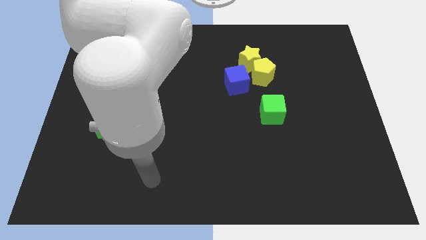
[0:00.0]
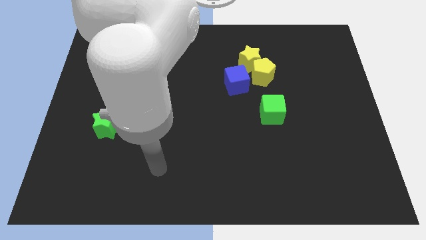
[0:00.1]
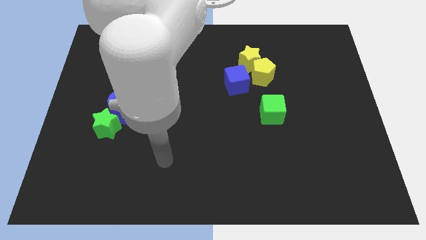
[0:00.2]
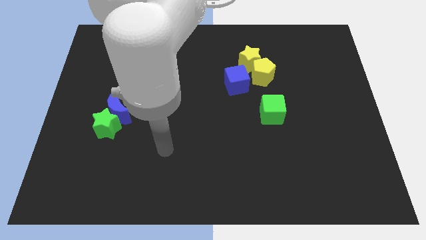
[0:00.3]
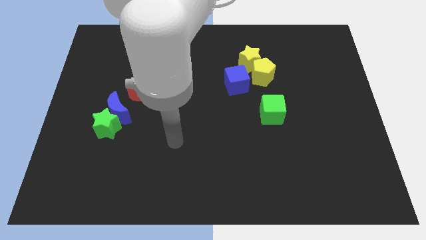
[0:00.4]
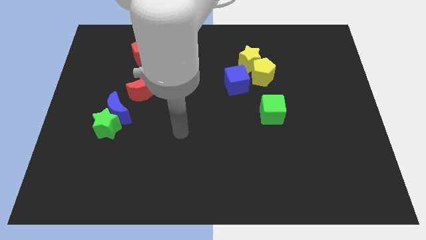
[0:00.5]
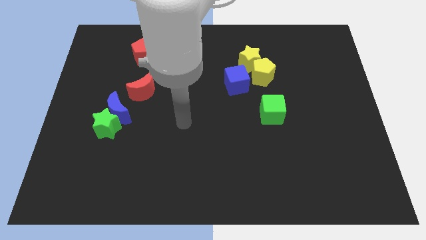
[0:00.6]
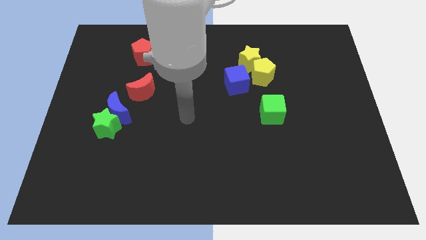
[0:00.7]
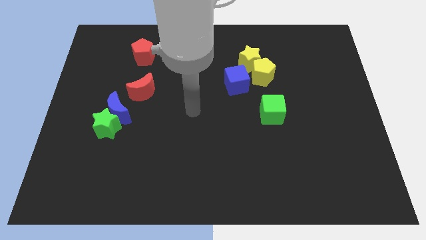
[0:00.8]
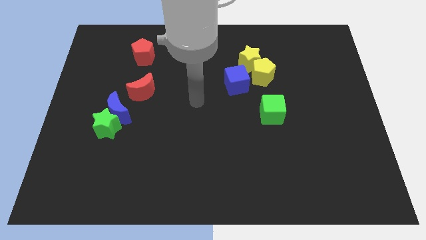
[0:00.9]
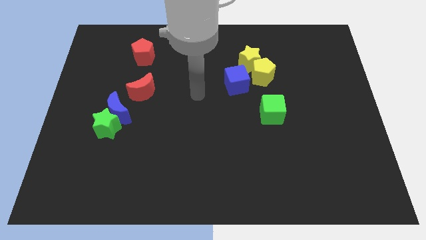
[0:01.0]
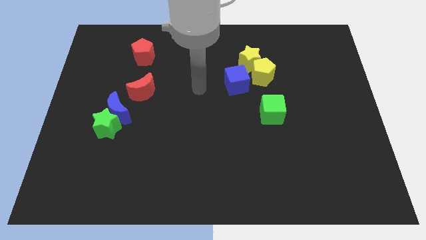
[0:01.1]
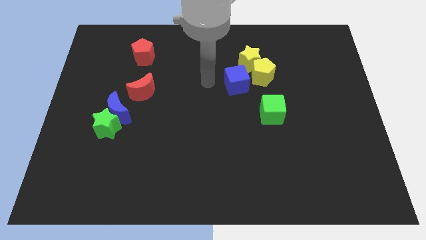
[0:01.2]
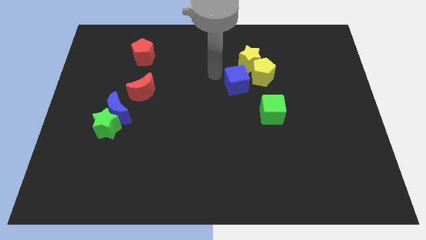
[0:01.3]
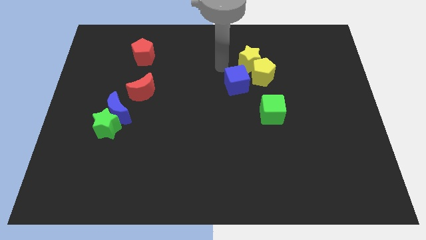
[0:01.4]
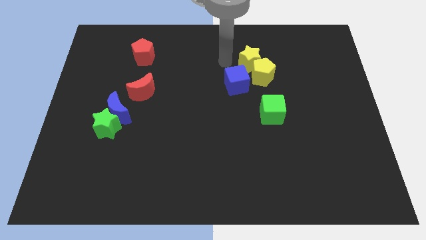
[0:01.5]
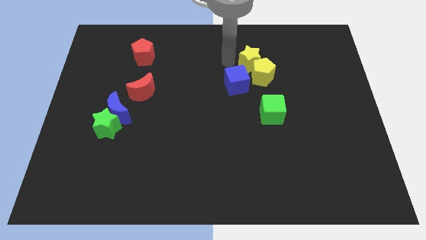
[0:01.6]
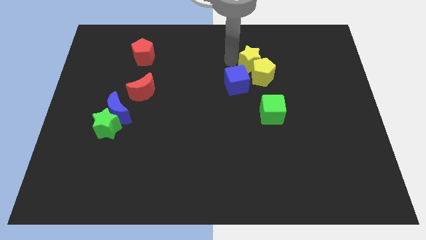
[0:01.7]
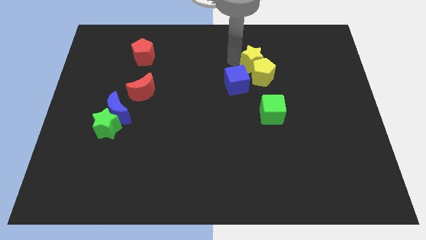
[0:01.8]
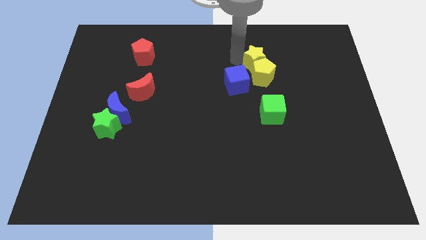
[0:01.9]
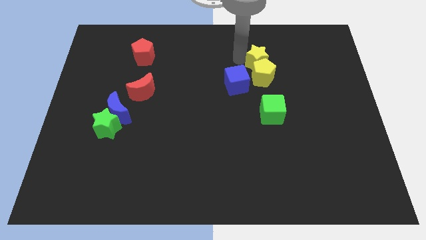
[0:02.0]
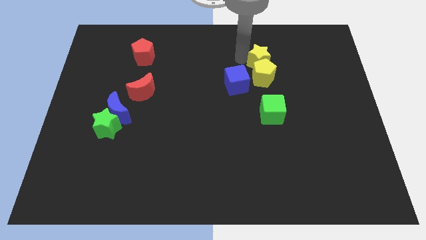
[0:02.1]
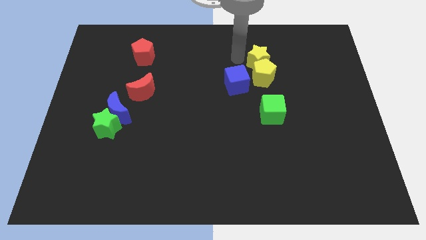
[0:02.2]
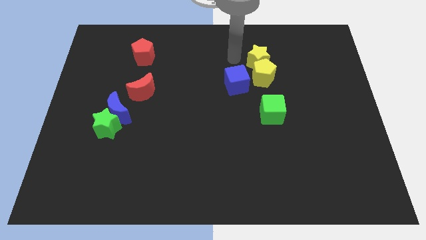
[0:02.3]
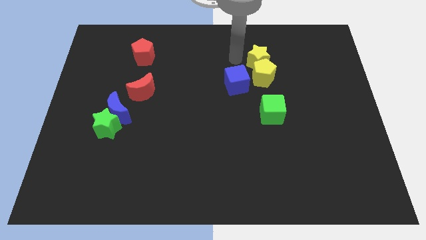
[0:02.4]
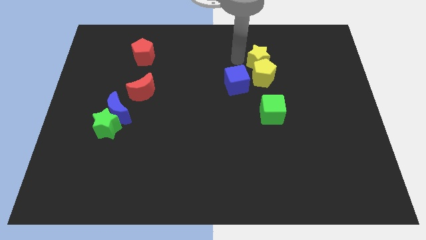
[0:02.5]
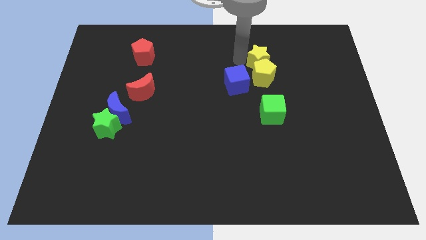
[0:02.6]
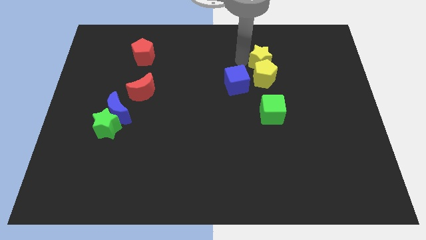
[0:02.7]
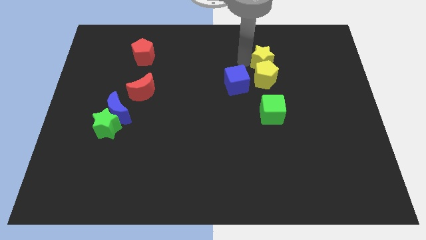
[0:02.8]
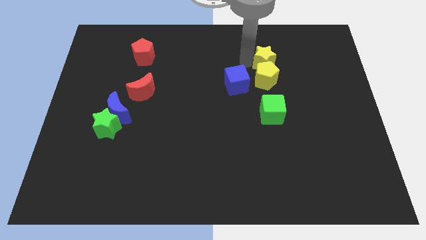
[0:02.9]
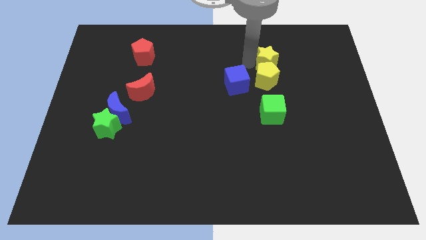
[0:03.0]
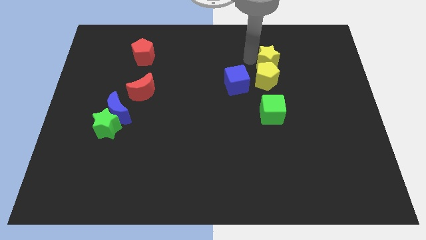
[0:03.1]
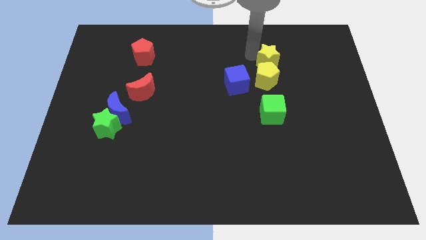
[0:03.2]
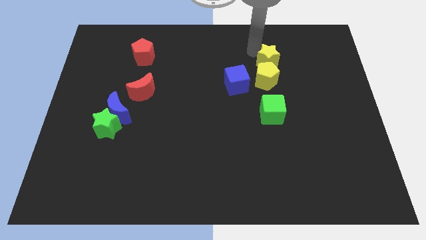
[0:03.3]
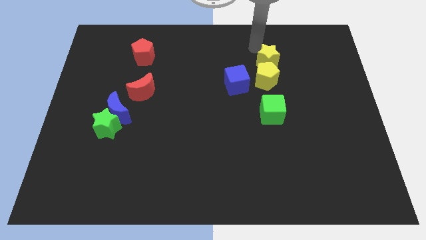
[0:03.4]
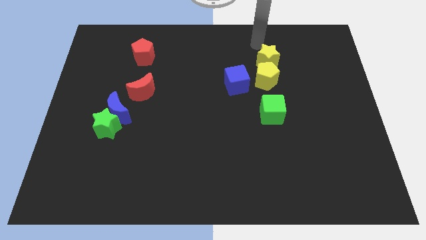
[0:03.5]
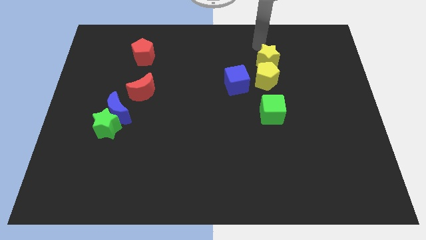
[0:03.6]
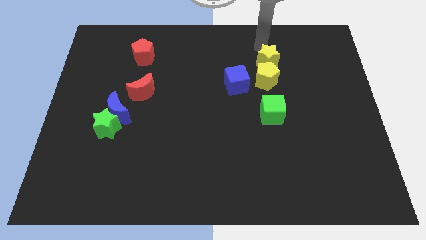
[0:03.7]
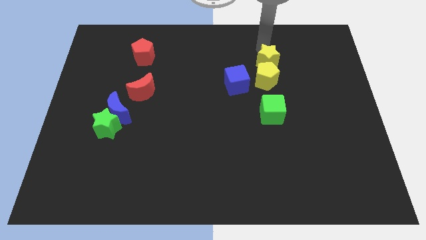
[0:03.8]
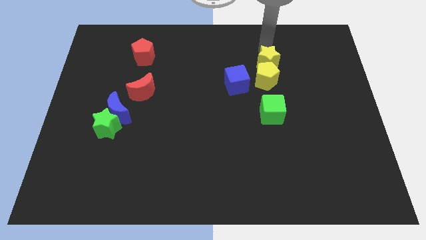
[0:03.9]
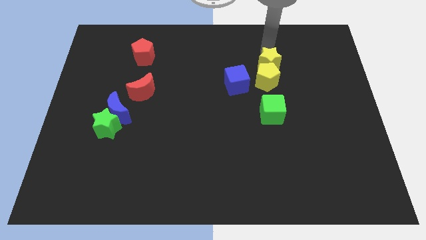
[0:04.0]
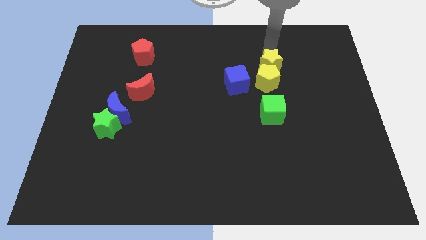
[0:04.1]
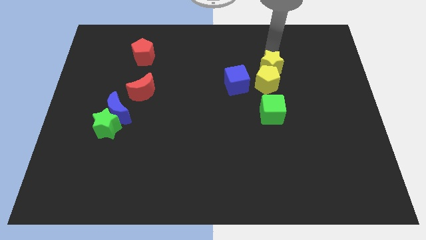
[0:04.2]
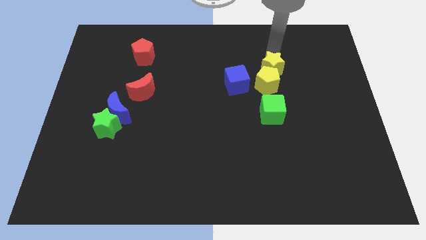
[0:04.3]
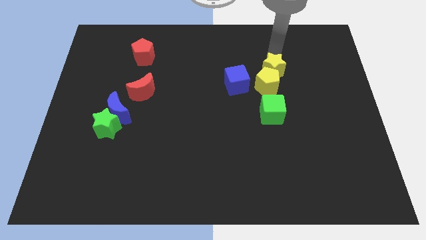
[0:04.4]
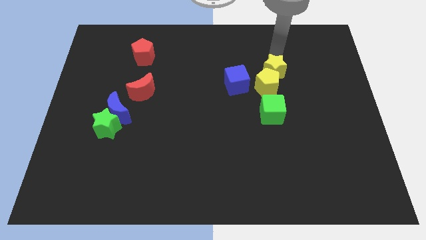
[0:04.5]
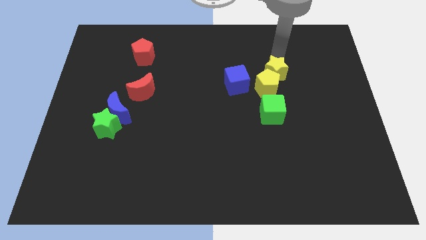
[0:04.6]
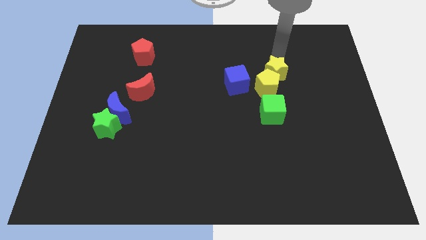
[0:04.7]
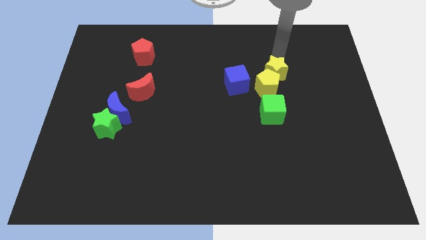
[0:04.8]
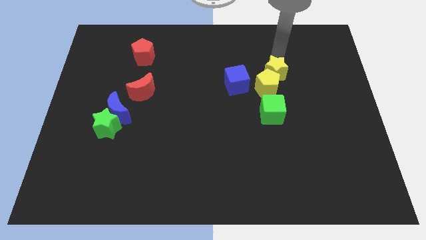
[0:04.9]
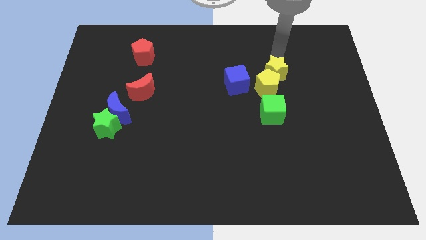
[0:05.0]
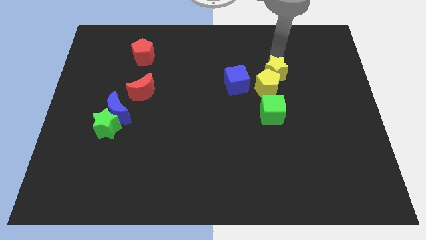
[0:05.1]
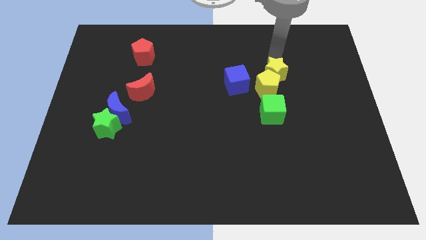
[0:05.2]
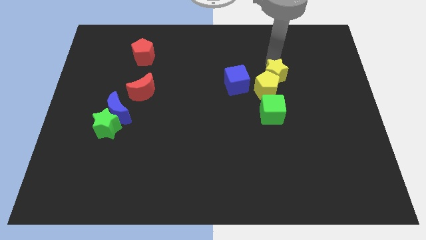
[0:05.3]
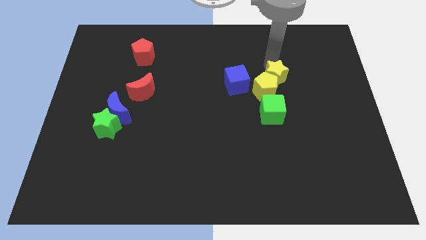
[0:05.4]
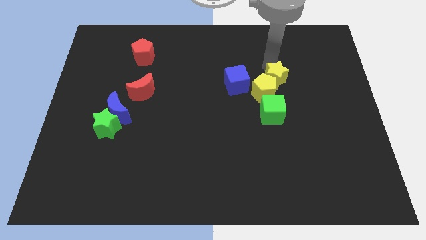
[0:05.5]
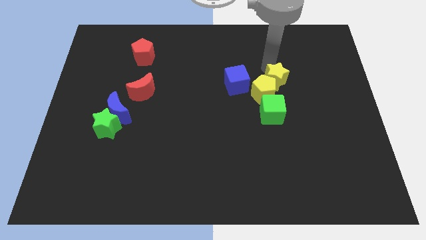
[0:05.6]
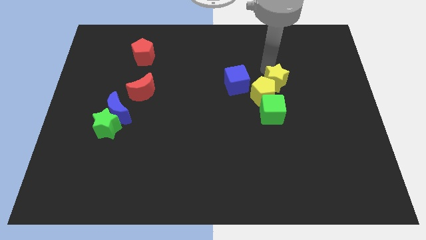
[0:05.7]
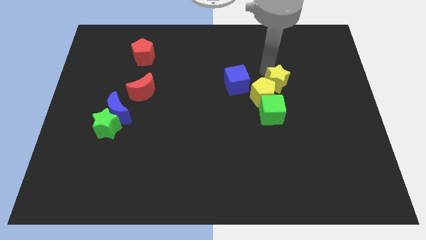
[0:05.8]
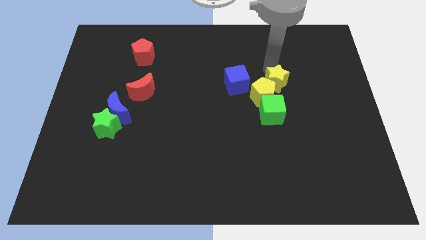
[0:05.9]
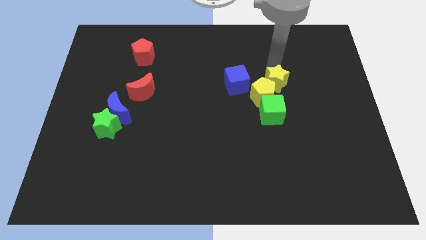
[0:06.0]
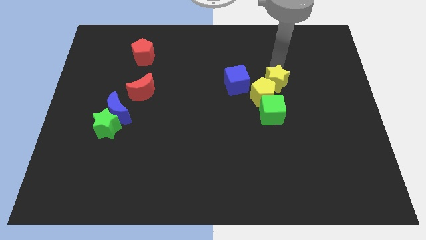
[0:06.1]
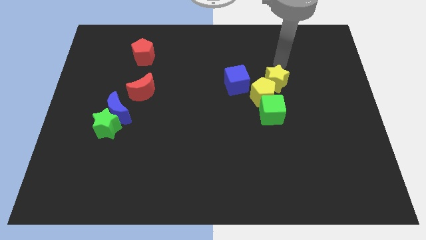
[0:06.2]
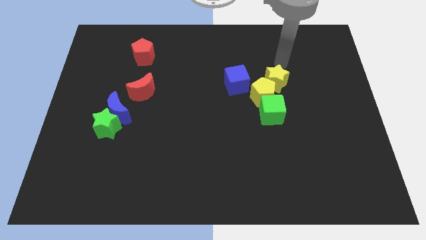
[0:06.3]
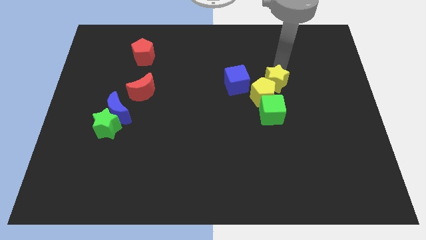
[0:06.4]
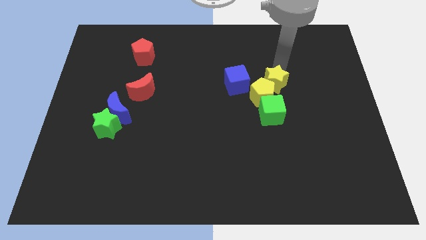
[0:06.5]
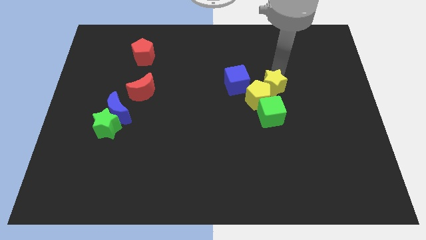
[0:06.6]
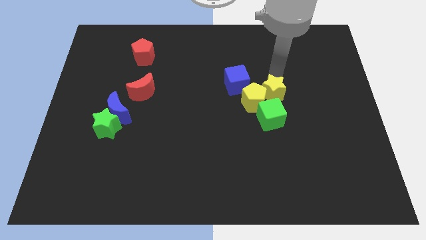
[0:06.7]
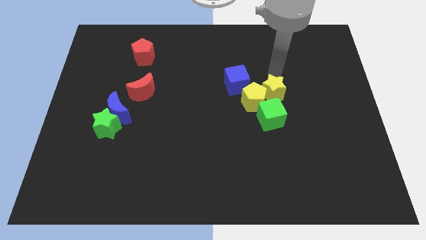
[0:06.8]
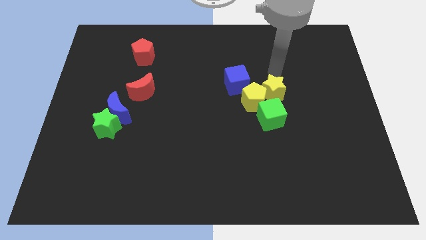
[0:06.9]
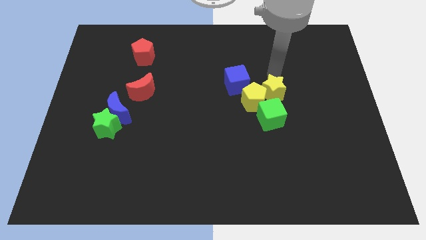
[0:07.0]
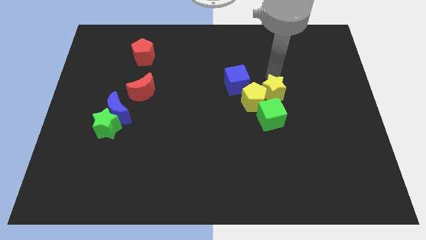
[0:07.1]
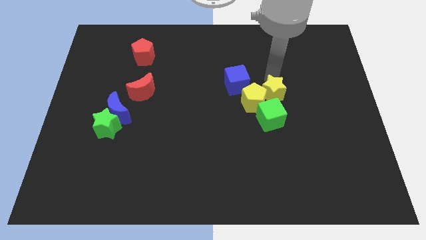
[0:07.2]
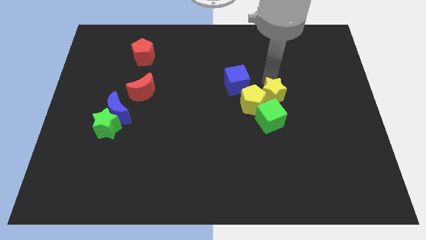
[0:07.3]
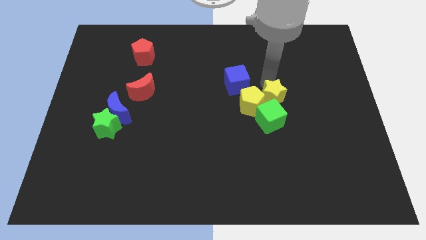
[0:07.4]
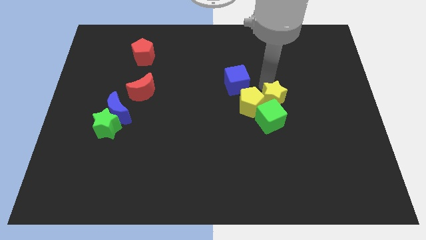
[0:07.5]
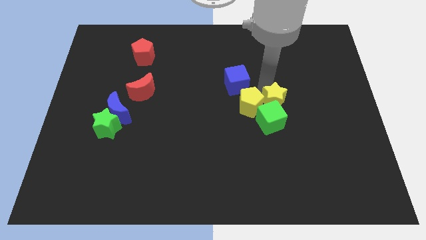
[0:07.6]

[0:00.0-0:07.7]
move the yellow star next to the green cube
